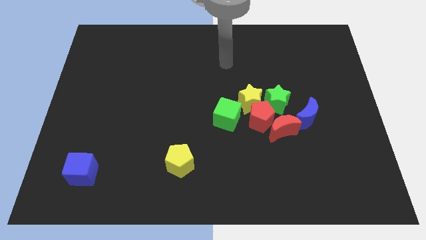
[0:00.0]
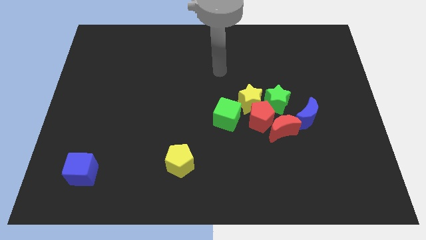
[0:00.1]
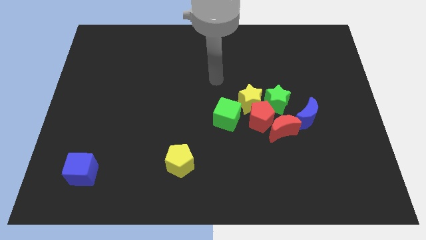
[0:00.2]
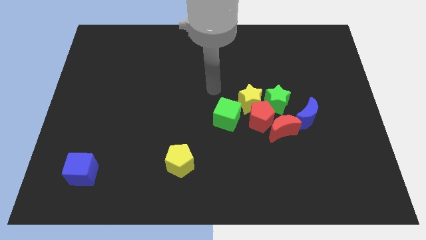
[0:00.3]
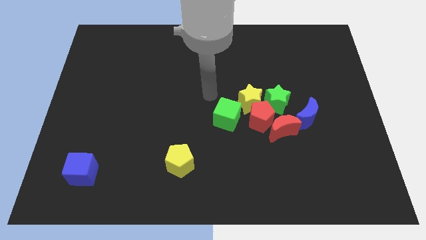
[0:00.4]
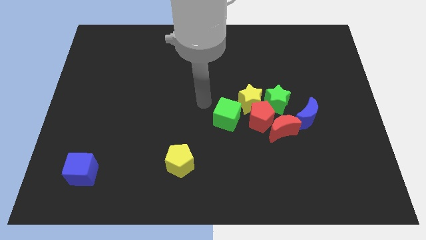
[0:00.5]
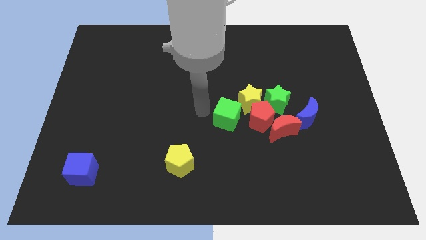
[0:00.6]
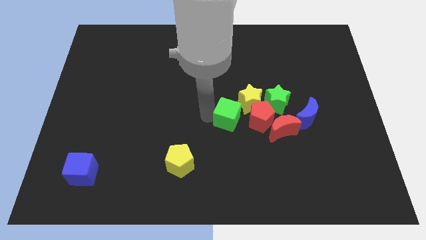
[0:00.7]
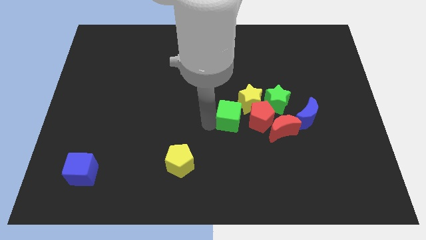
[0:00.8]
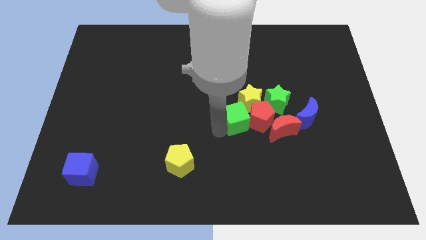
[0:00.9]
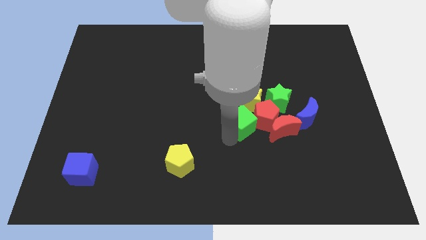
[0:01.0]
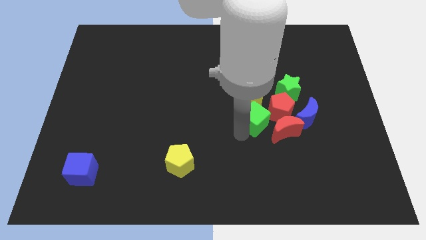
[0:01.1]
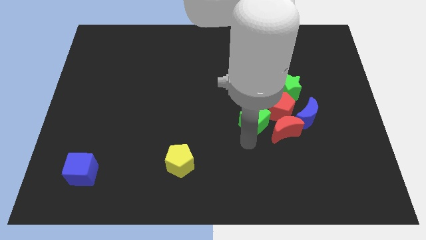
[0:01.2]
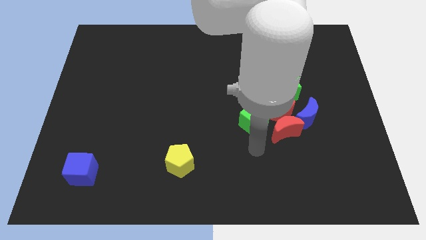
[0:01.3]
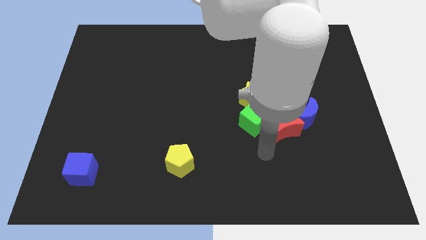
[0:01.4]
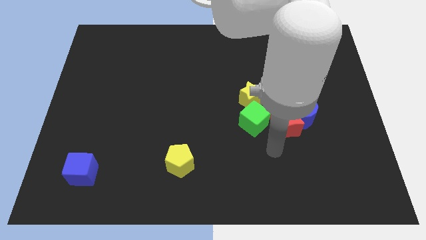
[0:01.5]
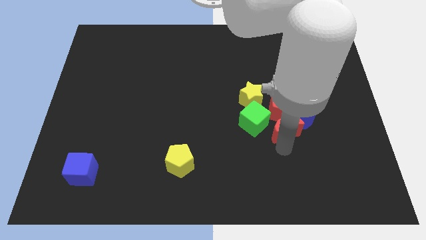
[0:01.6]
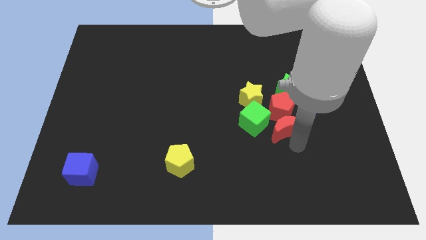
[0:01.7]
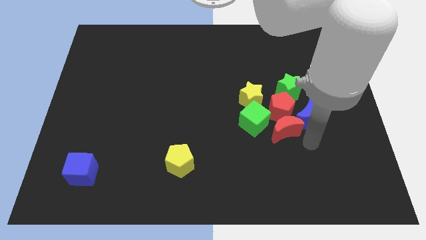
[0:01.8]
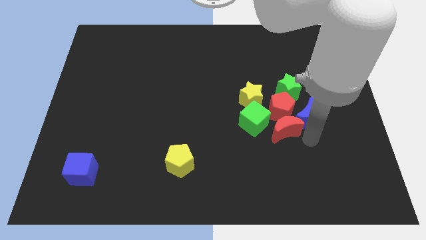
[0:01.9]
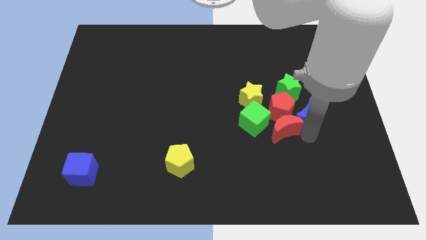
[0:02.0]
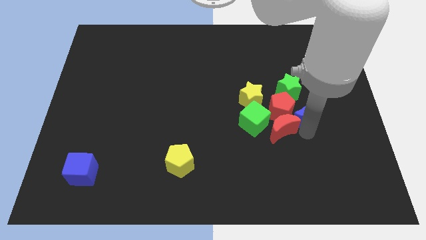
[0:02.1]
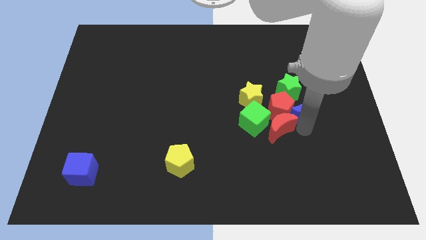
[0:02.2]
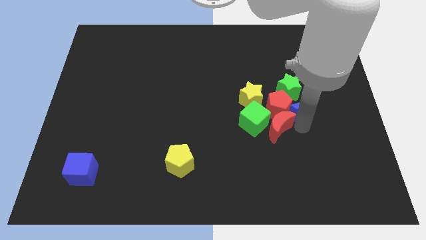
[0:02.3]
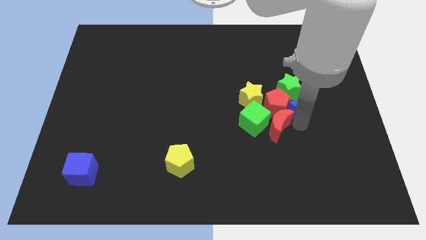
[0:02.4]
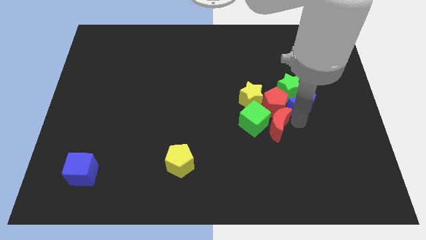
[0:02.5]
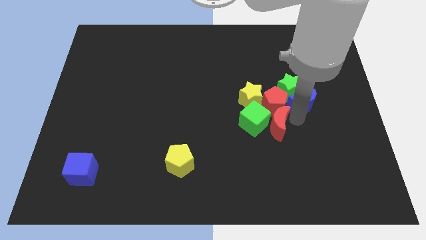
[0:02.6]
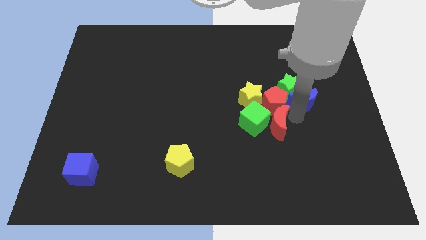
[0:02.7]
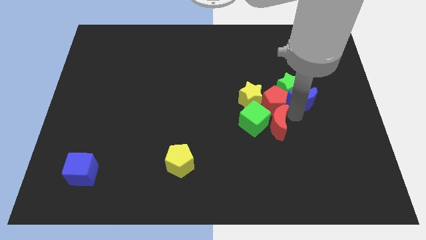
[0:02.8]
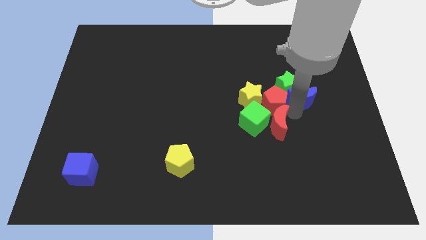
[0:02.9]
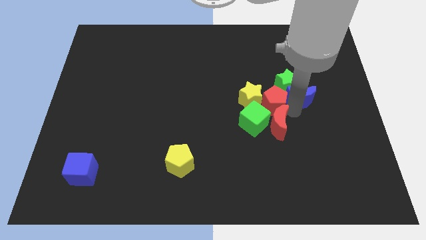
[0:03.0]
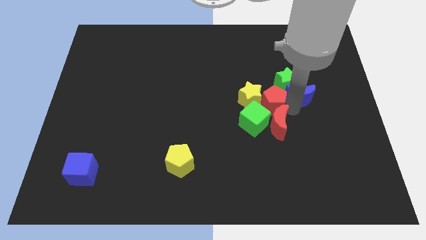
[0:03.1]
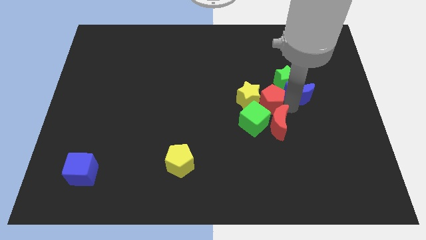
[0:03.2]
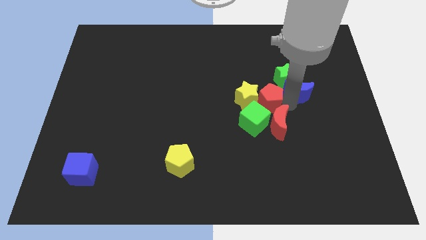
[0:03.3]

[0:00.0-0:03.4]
push the blue moon up slightly

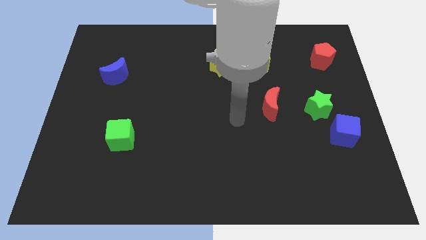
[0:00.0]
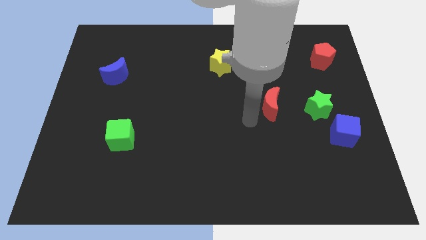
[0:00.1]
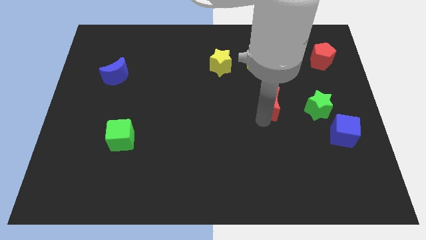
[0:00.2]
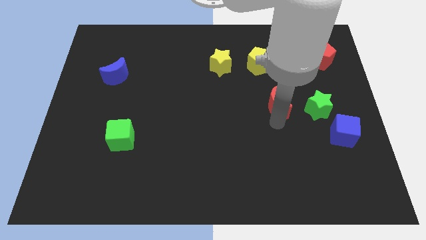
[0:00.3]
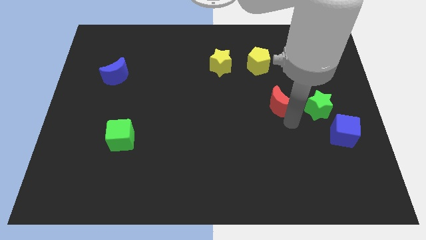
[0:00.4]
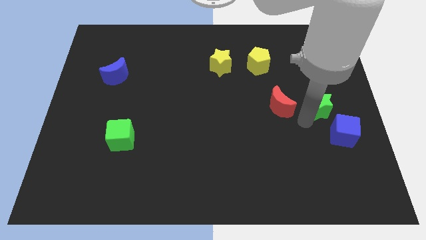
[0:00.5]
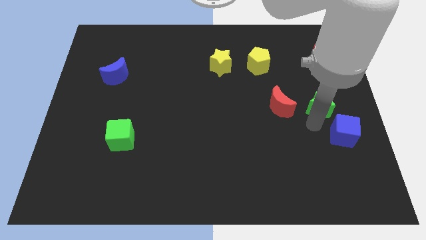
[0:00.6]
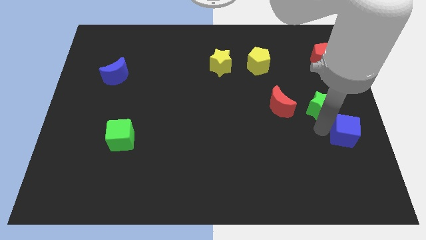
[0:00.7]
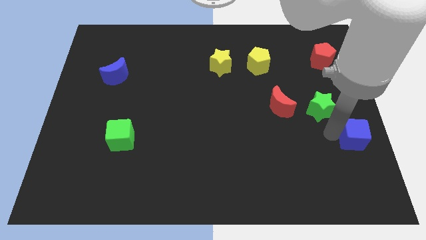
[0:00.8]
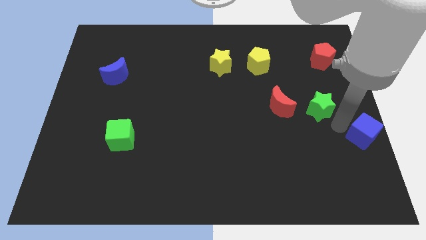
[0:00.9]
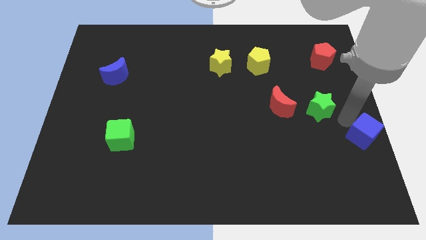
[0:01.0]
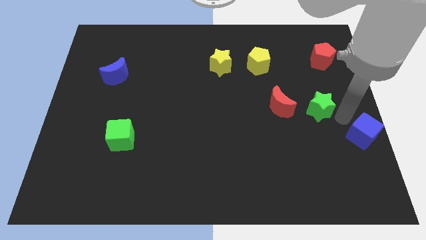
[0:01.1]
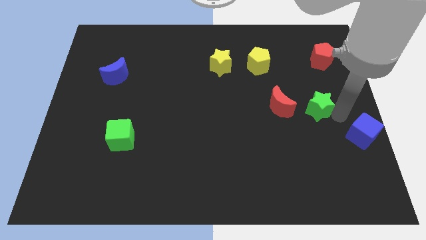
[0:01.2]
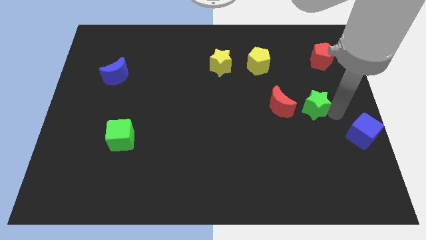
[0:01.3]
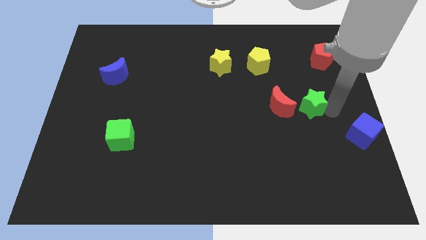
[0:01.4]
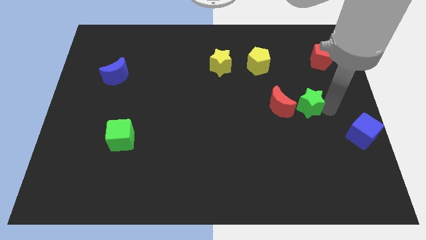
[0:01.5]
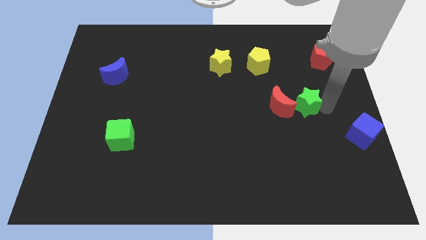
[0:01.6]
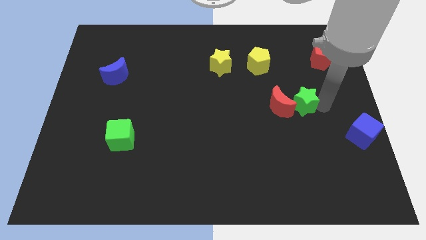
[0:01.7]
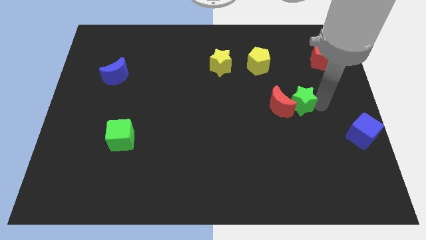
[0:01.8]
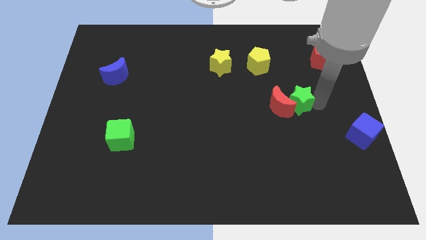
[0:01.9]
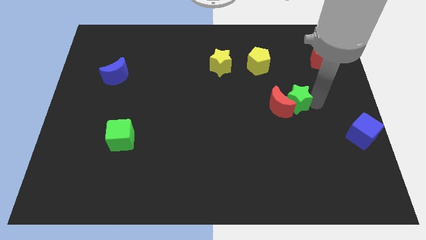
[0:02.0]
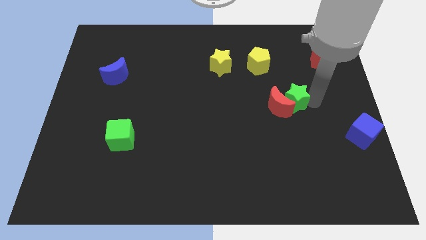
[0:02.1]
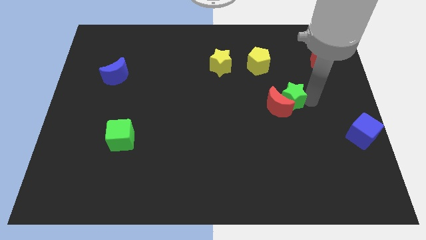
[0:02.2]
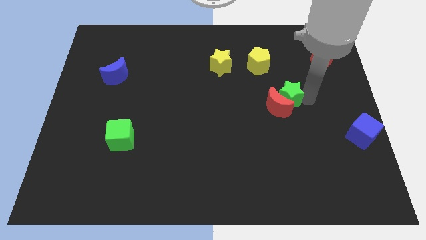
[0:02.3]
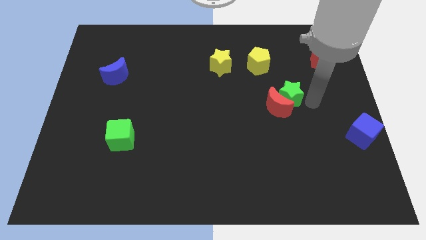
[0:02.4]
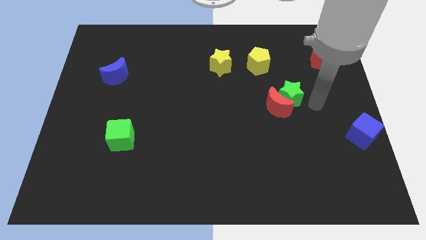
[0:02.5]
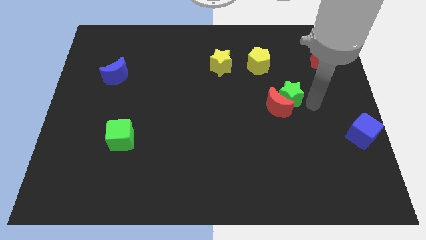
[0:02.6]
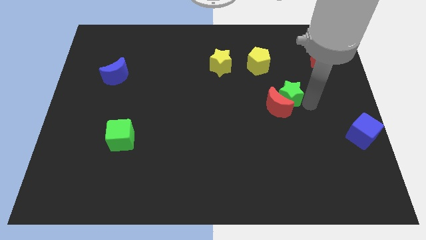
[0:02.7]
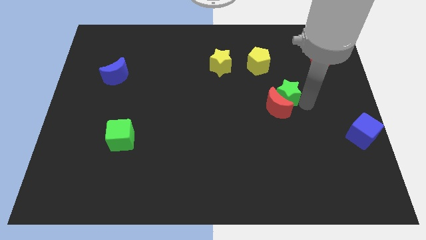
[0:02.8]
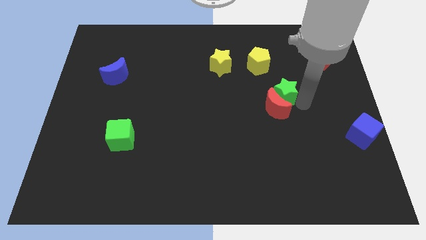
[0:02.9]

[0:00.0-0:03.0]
move the green star a little bit to the left

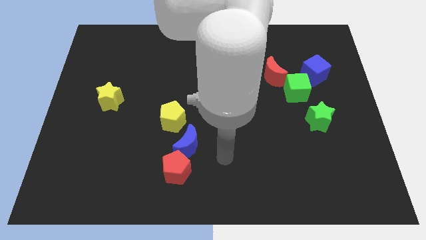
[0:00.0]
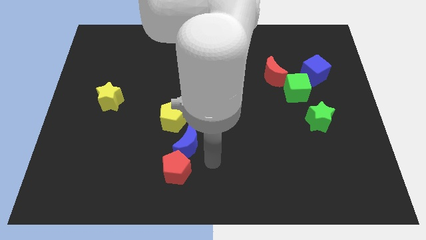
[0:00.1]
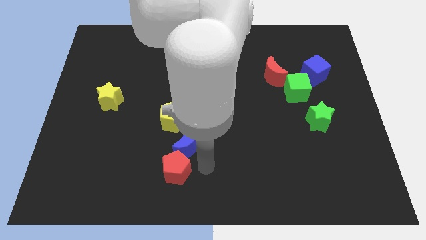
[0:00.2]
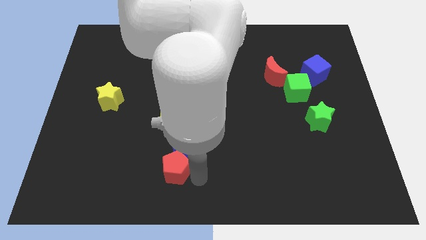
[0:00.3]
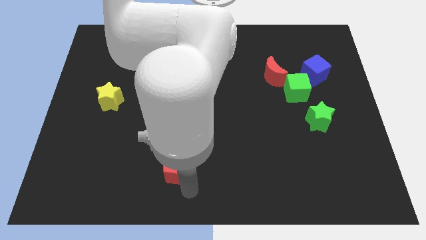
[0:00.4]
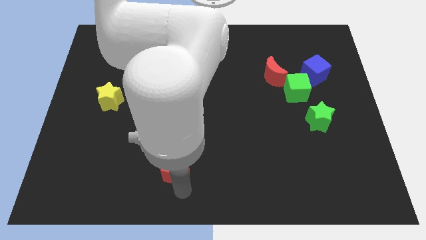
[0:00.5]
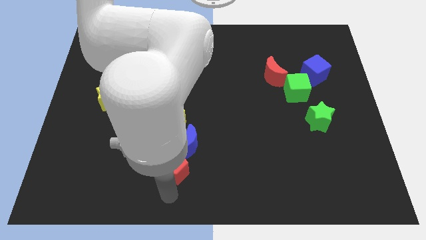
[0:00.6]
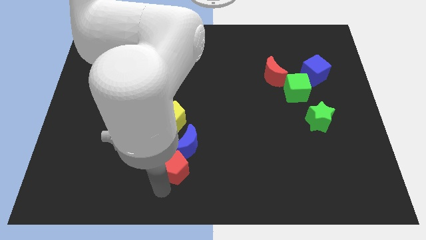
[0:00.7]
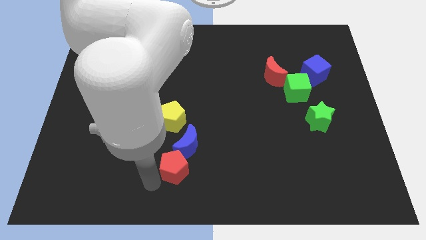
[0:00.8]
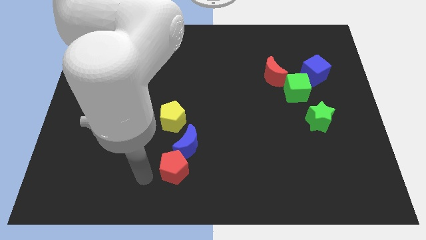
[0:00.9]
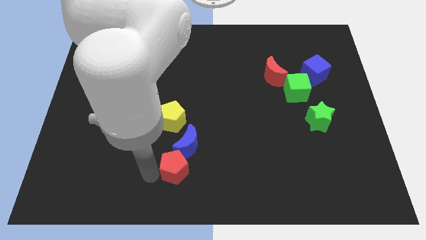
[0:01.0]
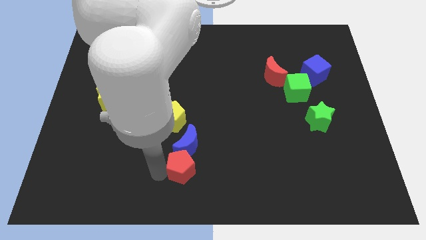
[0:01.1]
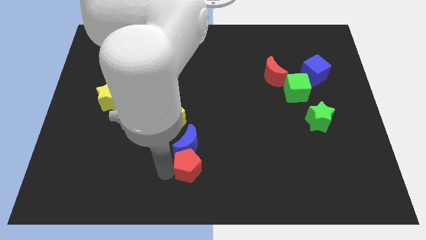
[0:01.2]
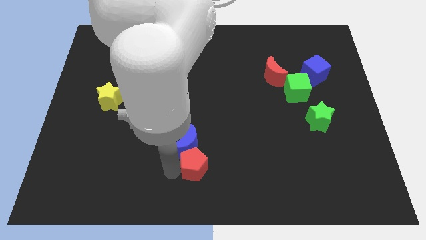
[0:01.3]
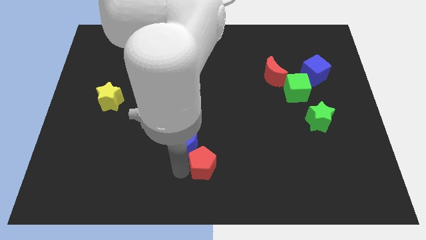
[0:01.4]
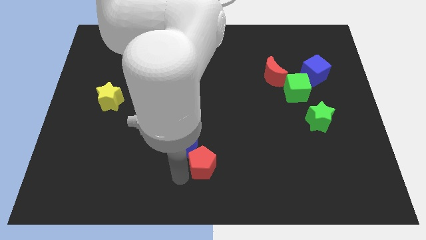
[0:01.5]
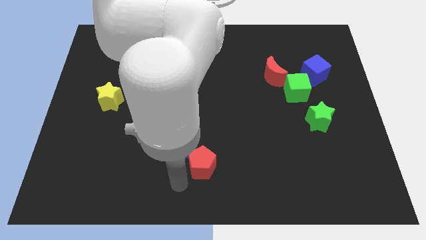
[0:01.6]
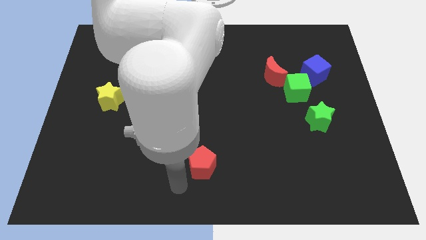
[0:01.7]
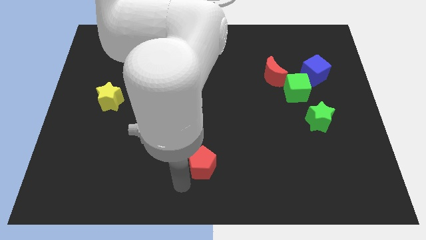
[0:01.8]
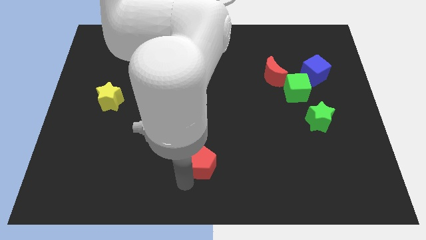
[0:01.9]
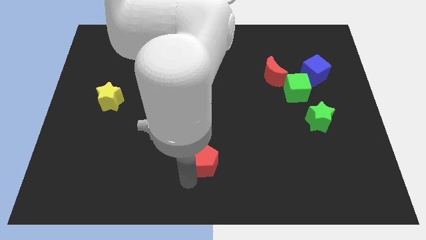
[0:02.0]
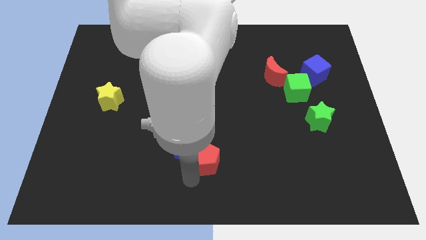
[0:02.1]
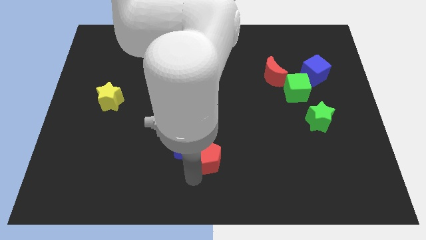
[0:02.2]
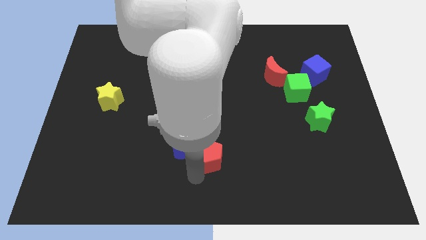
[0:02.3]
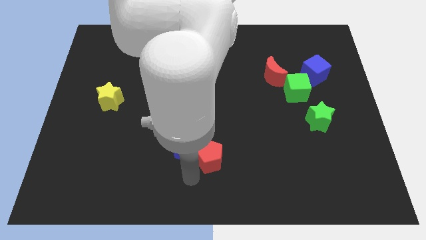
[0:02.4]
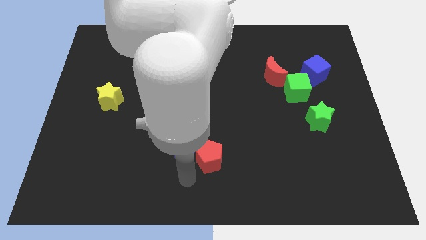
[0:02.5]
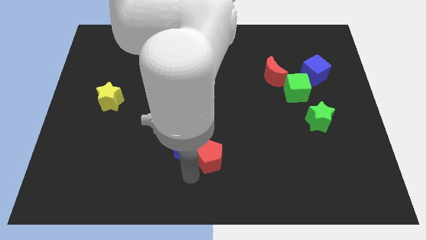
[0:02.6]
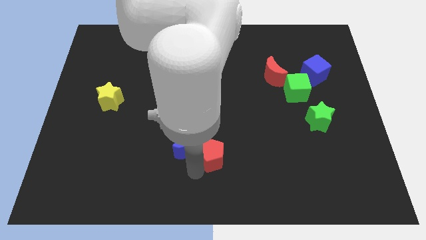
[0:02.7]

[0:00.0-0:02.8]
push the red pentagon upwards and right diagonally slightly
